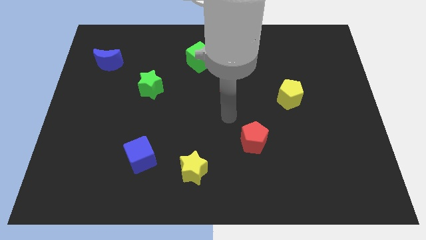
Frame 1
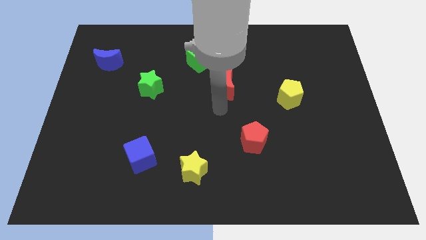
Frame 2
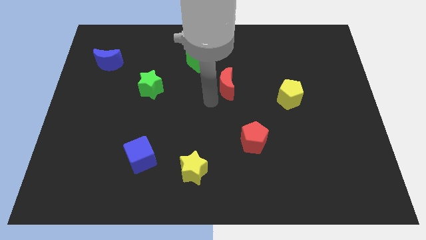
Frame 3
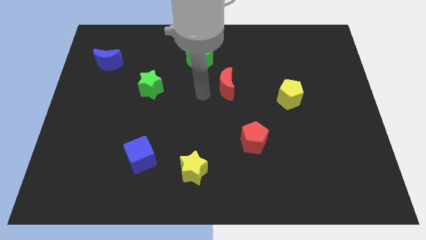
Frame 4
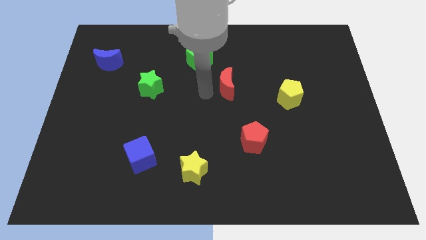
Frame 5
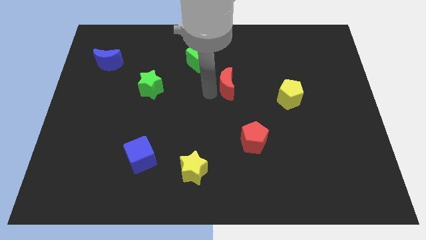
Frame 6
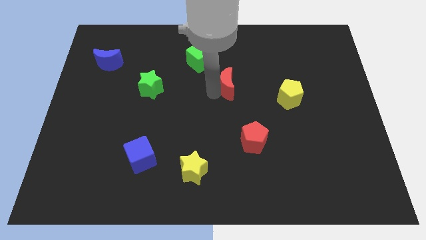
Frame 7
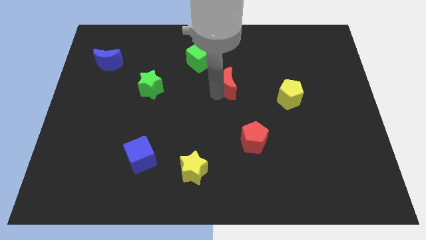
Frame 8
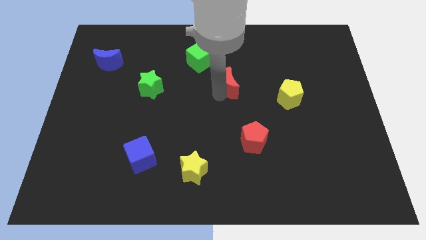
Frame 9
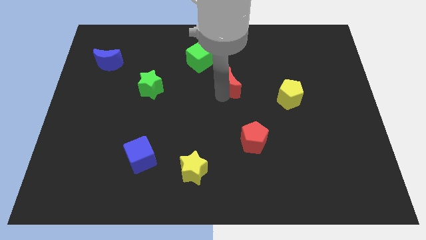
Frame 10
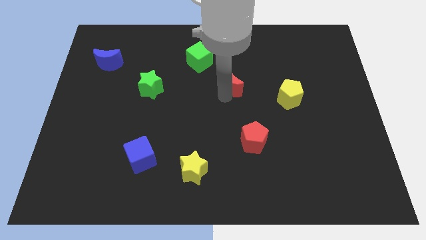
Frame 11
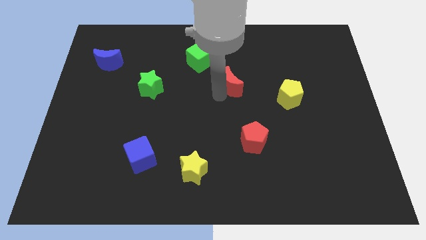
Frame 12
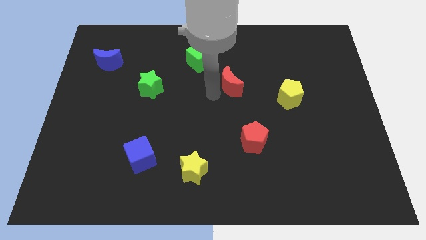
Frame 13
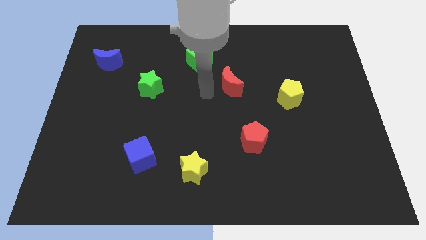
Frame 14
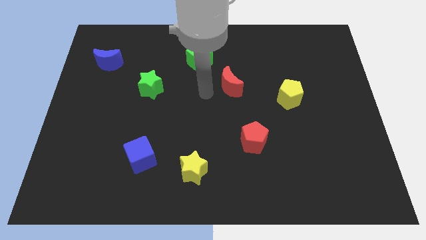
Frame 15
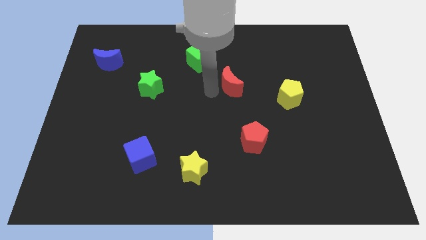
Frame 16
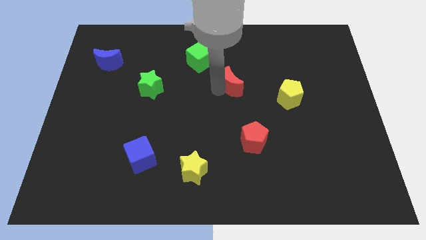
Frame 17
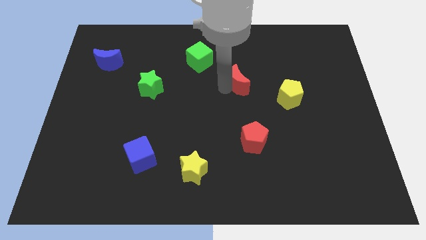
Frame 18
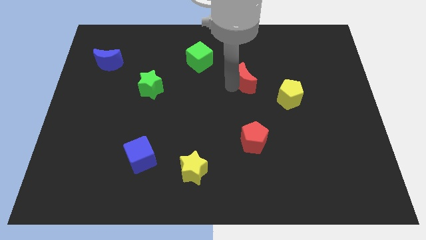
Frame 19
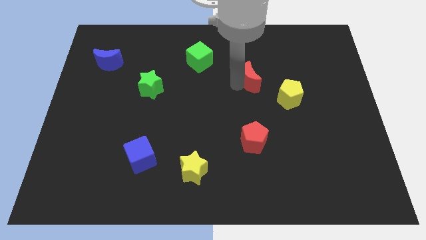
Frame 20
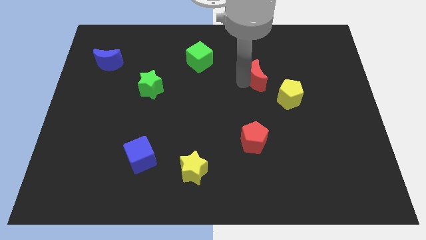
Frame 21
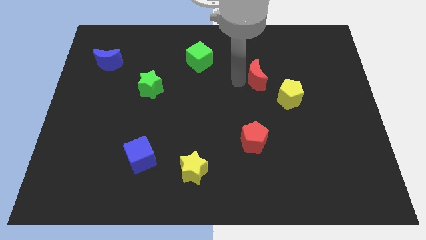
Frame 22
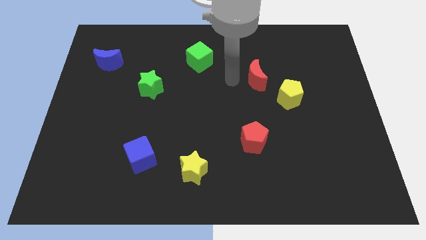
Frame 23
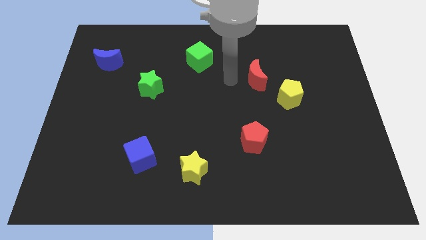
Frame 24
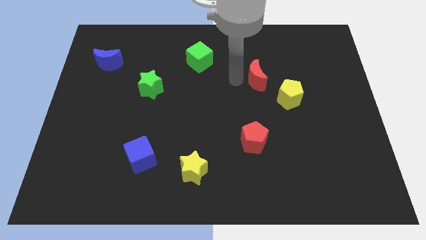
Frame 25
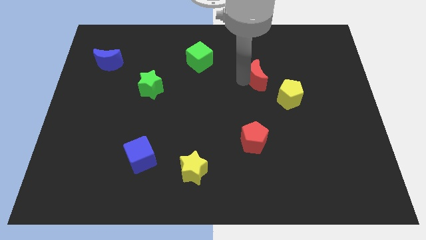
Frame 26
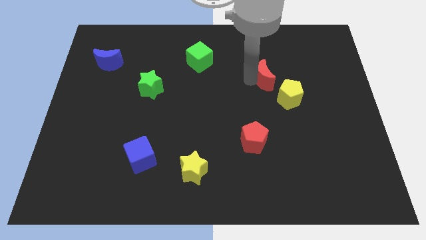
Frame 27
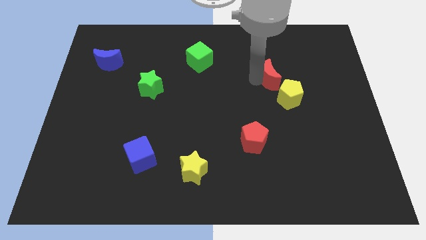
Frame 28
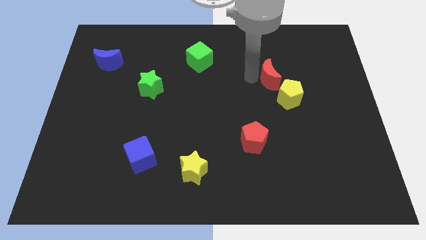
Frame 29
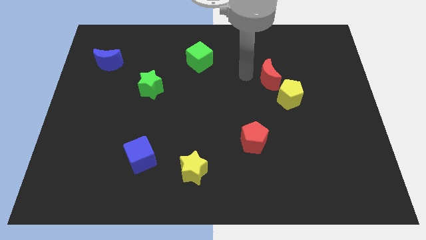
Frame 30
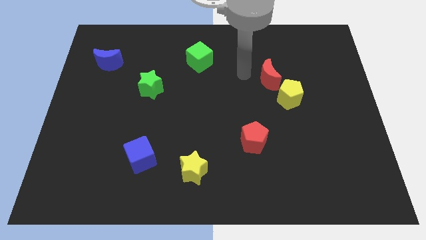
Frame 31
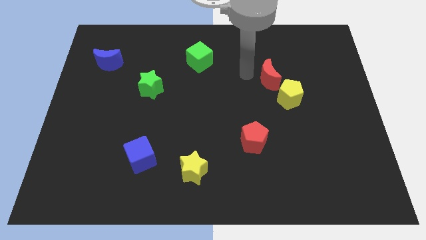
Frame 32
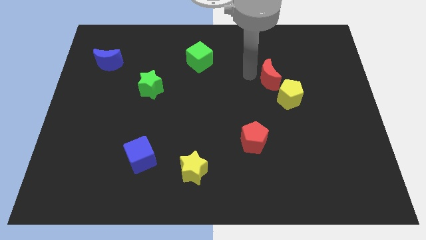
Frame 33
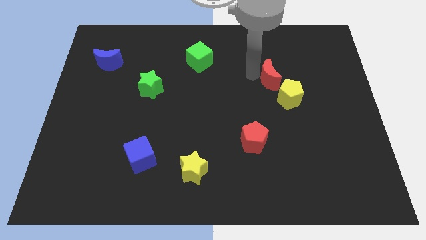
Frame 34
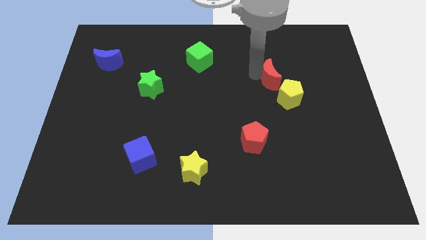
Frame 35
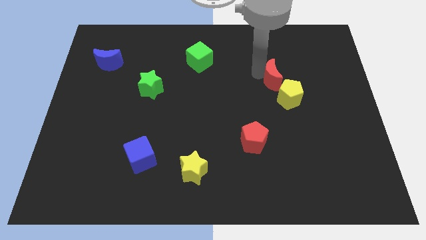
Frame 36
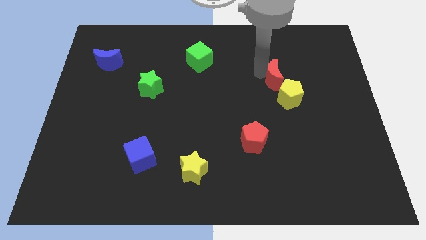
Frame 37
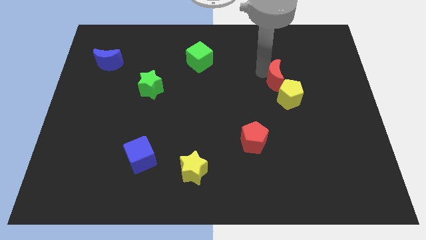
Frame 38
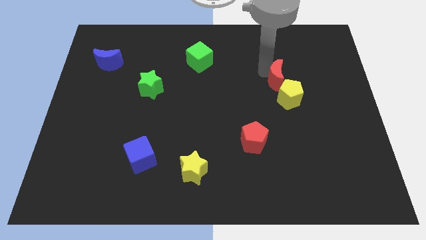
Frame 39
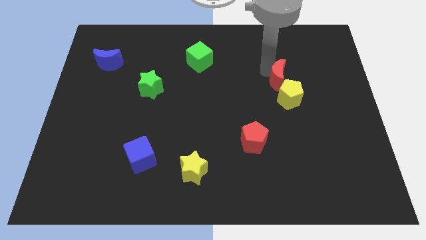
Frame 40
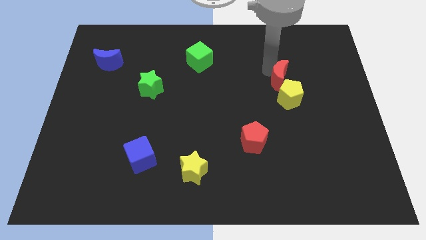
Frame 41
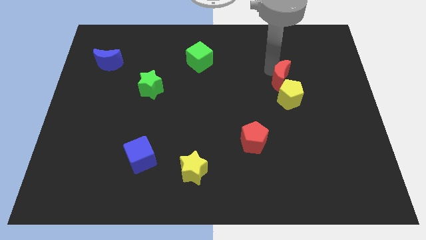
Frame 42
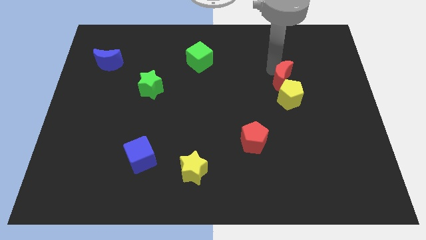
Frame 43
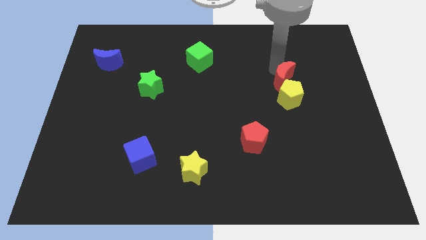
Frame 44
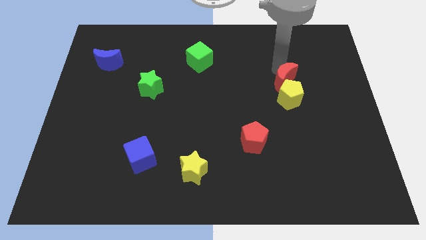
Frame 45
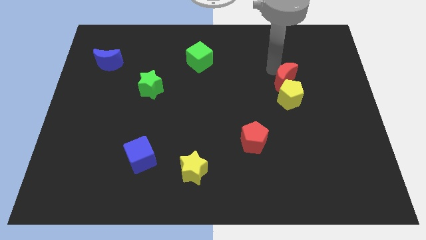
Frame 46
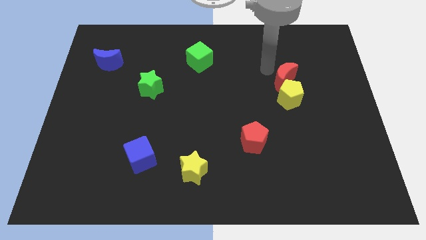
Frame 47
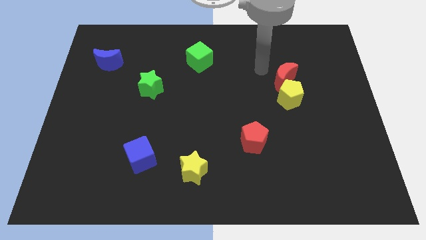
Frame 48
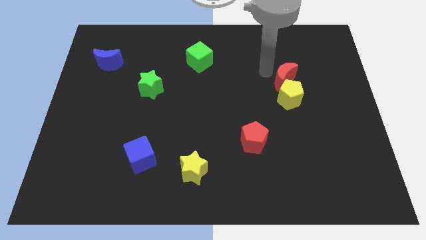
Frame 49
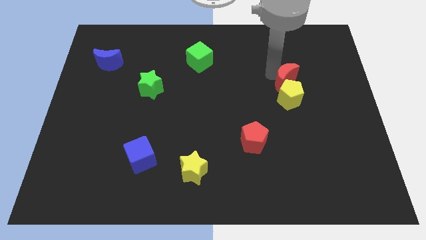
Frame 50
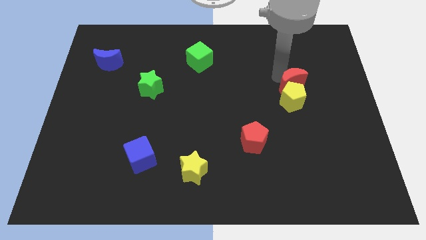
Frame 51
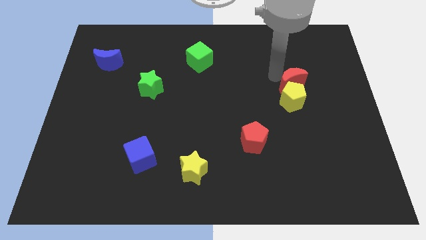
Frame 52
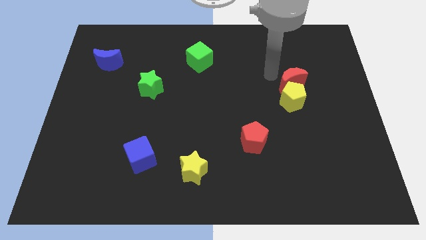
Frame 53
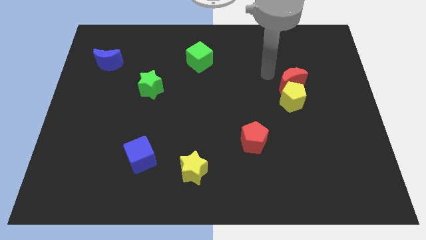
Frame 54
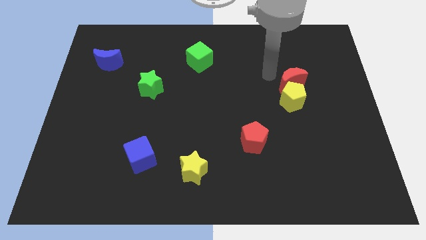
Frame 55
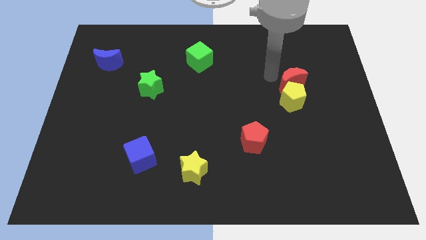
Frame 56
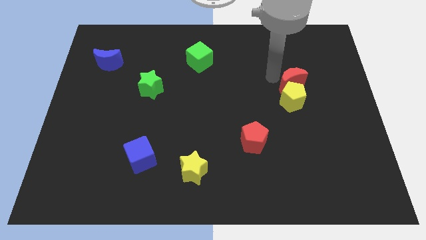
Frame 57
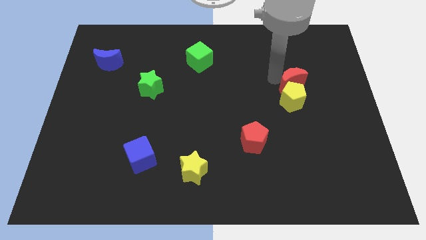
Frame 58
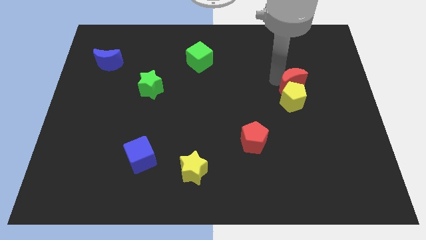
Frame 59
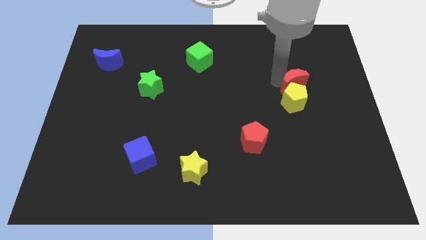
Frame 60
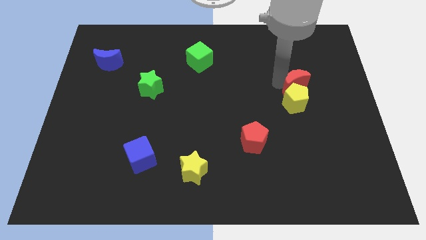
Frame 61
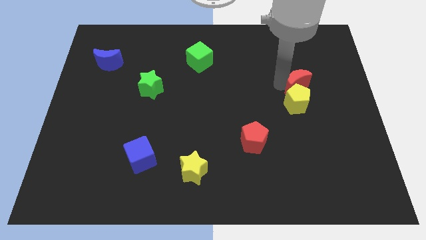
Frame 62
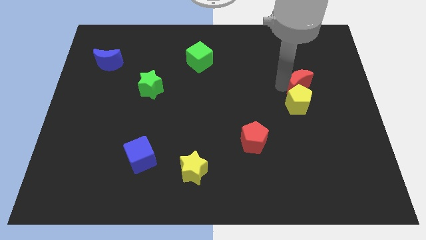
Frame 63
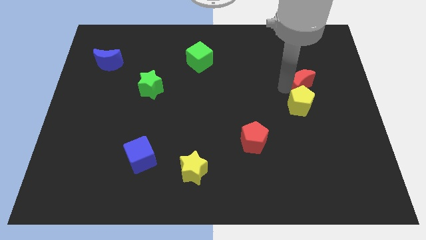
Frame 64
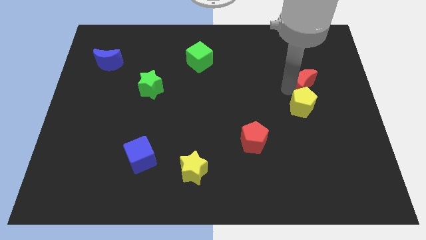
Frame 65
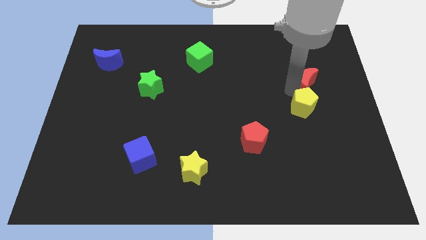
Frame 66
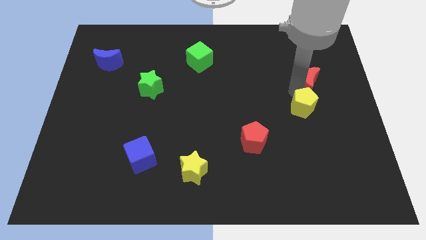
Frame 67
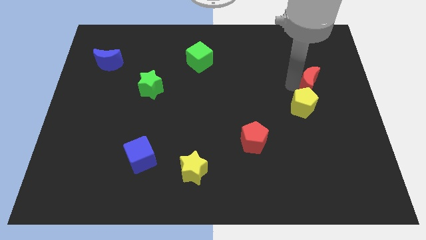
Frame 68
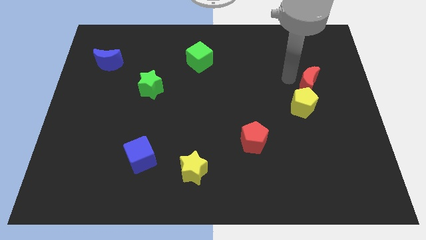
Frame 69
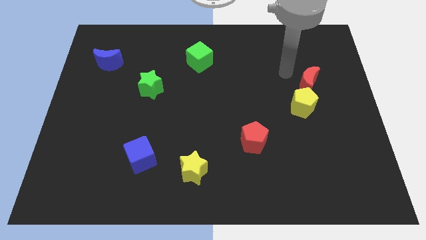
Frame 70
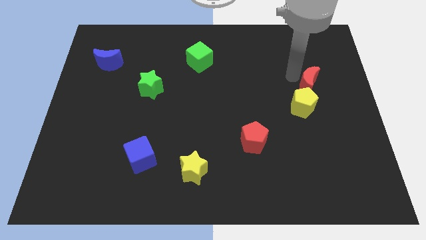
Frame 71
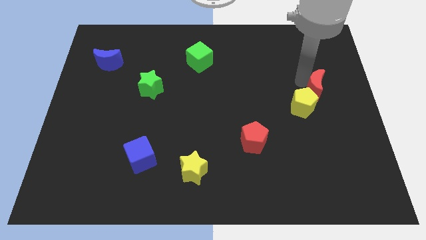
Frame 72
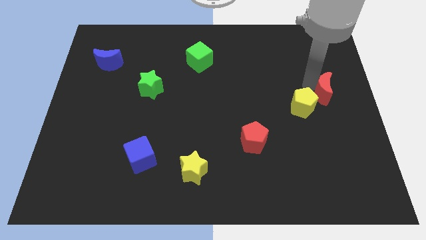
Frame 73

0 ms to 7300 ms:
slide the red moon just right of the yellow pentagon

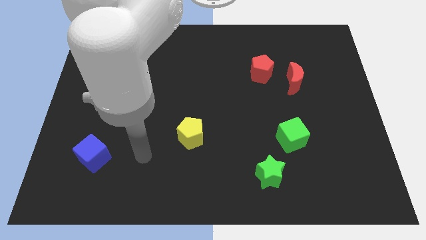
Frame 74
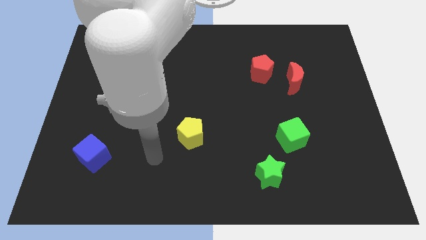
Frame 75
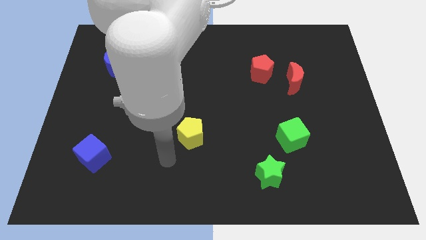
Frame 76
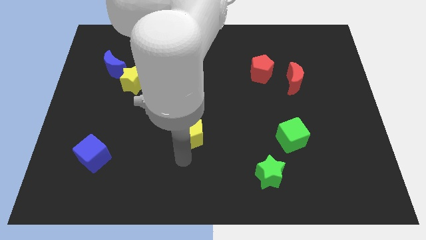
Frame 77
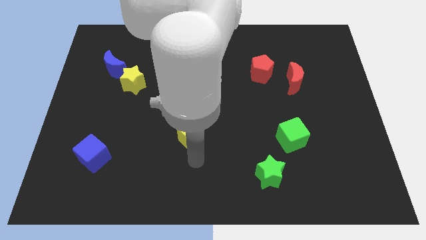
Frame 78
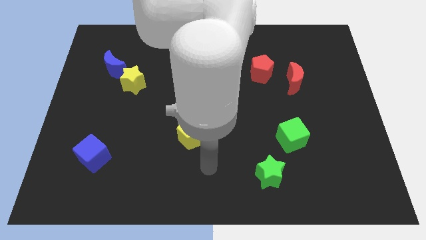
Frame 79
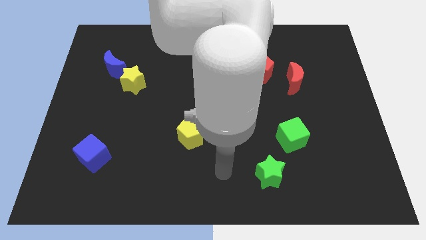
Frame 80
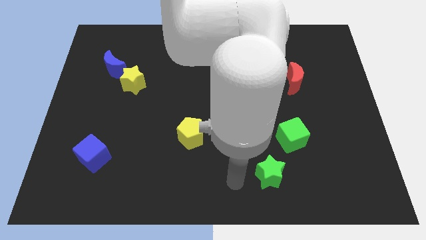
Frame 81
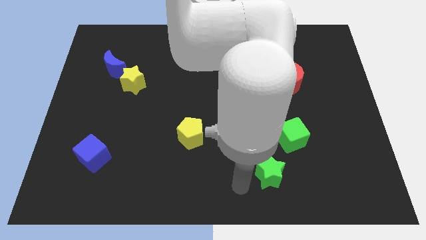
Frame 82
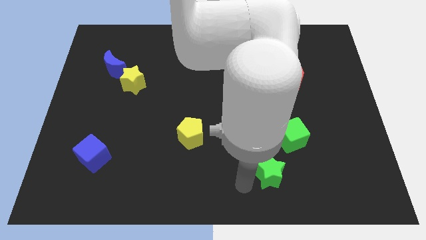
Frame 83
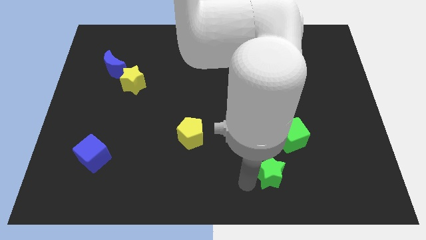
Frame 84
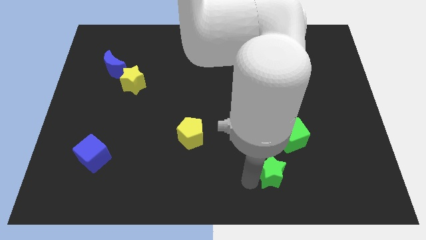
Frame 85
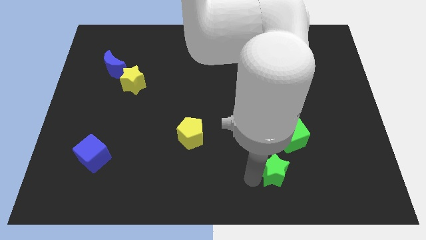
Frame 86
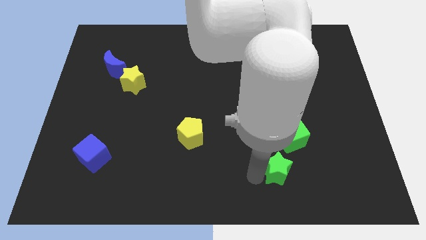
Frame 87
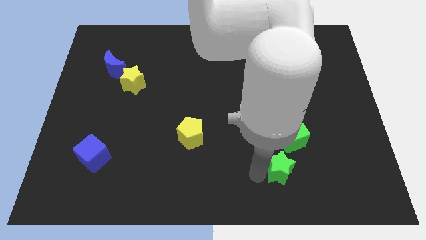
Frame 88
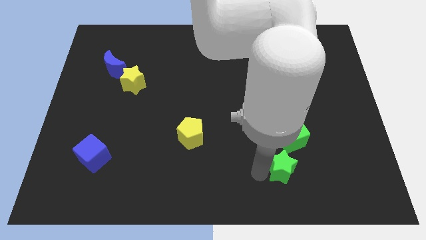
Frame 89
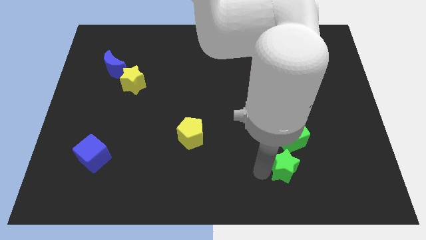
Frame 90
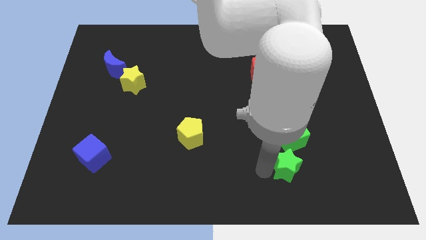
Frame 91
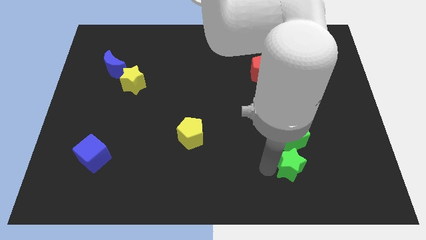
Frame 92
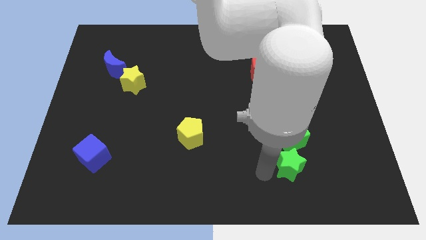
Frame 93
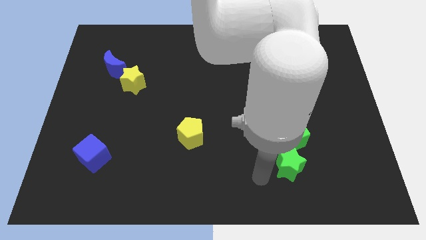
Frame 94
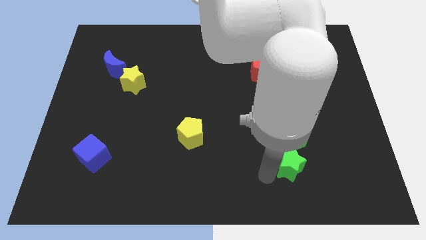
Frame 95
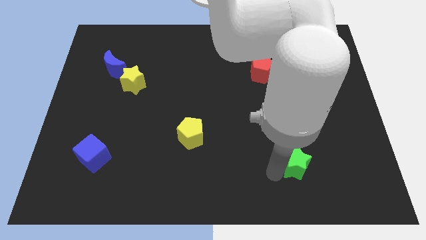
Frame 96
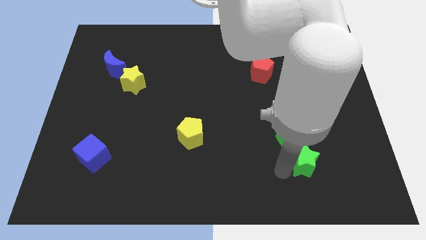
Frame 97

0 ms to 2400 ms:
put the green star to the bottom right of the green cube
